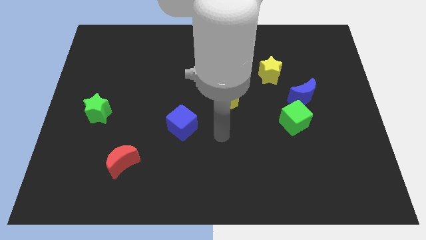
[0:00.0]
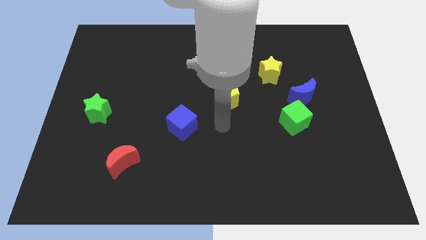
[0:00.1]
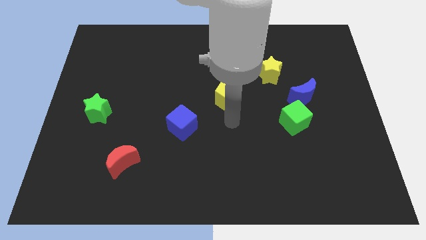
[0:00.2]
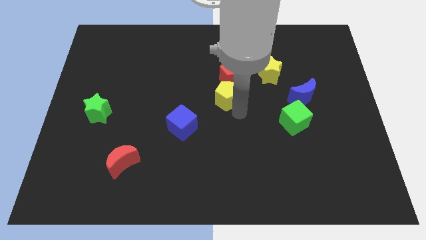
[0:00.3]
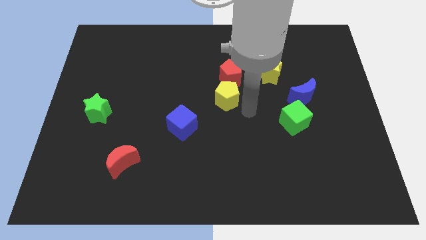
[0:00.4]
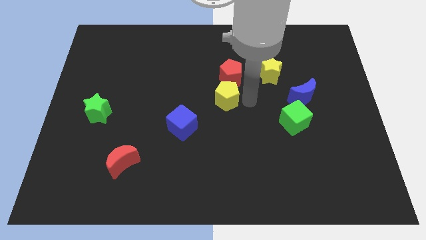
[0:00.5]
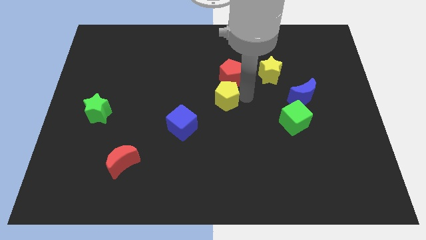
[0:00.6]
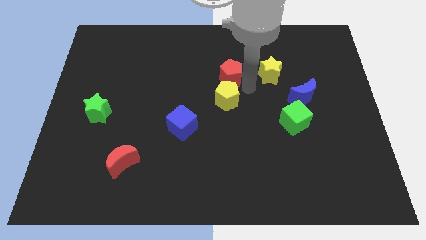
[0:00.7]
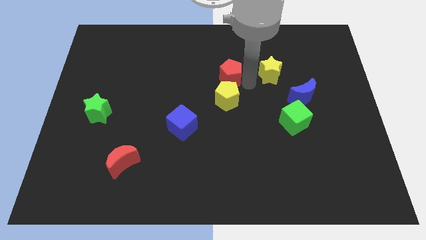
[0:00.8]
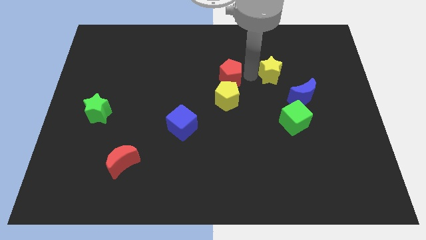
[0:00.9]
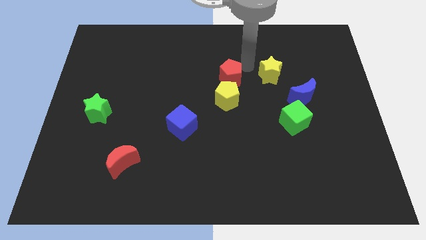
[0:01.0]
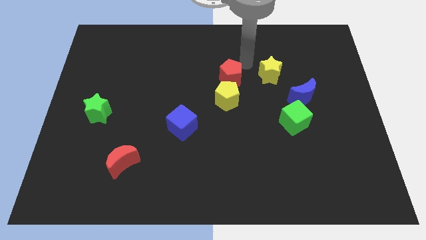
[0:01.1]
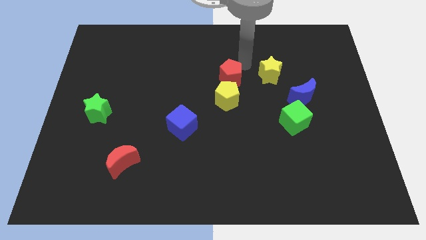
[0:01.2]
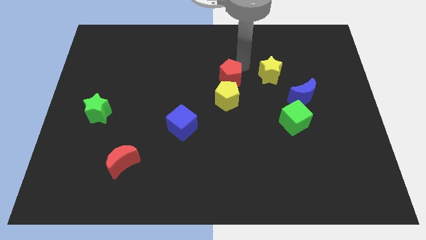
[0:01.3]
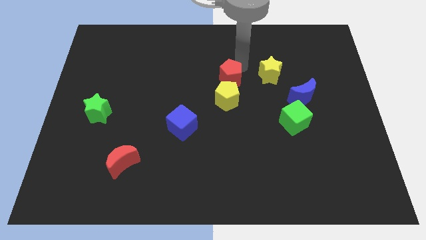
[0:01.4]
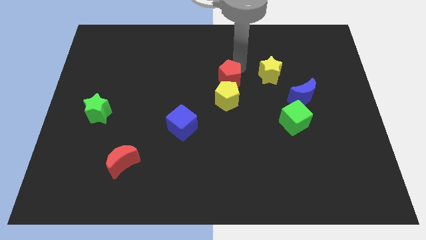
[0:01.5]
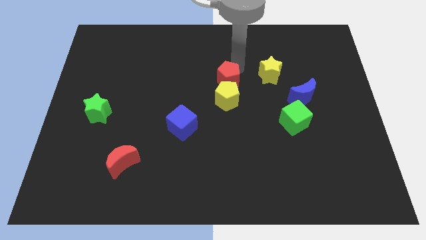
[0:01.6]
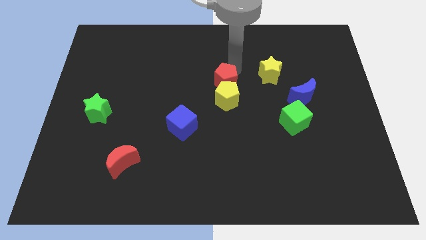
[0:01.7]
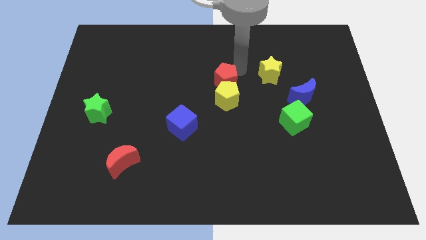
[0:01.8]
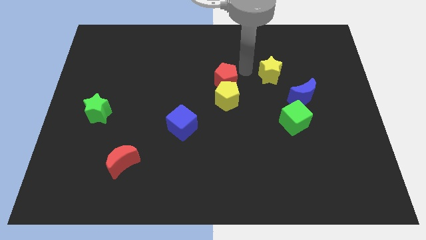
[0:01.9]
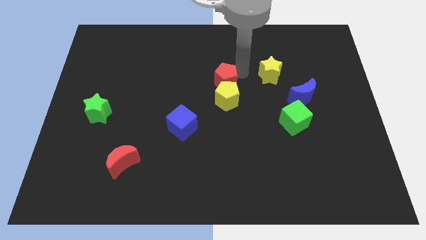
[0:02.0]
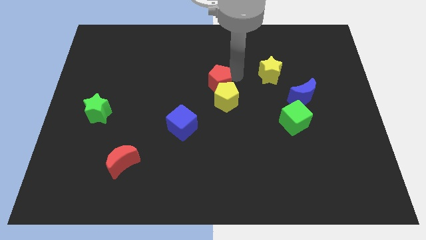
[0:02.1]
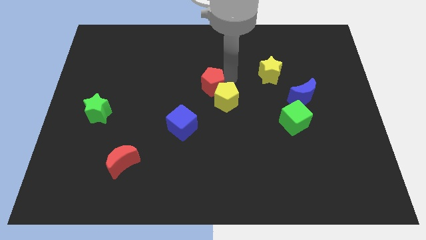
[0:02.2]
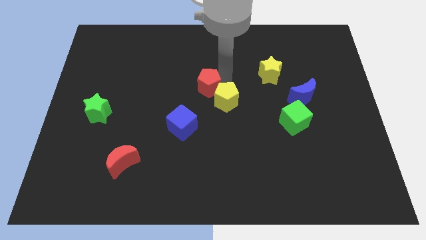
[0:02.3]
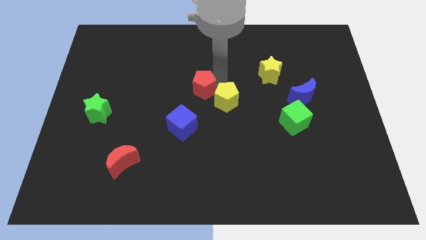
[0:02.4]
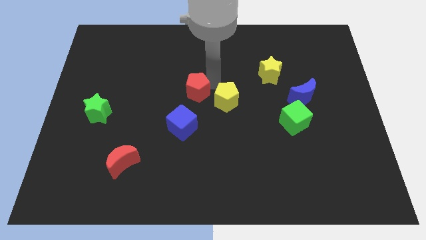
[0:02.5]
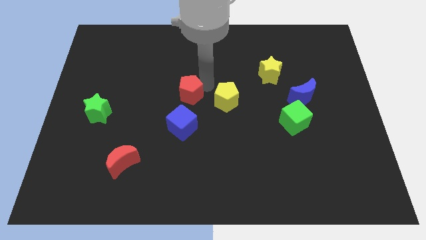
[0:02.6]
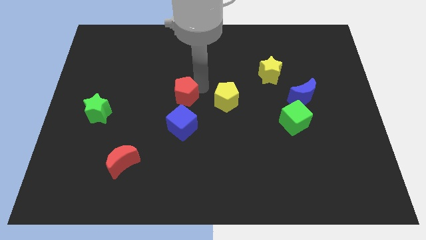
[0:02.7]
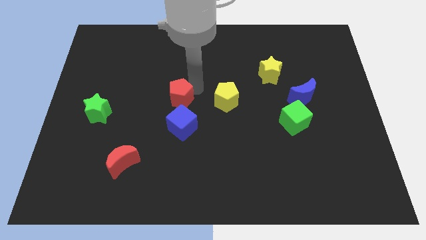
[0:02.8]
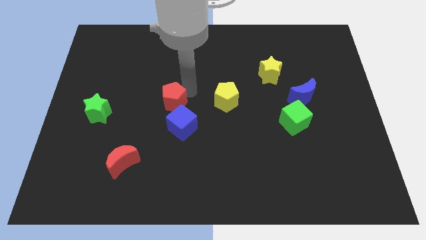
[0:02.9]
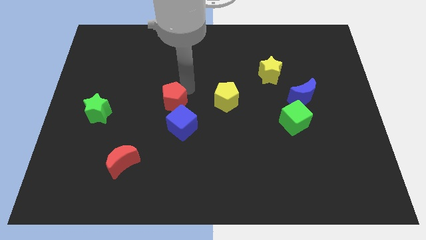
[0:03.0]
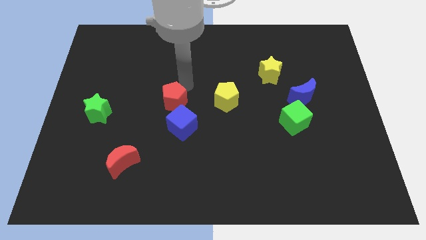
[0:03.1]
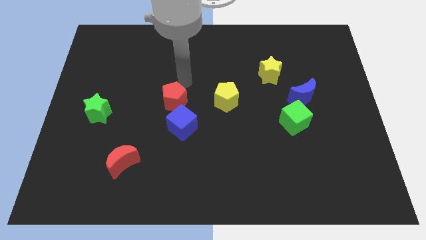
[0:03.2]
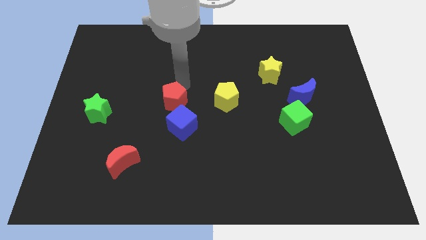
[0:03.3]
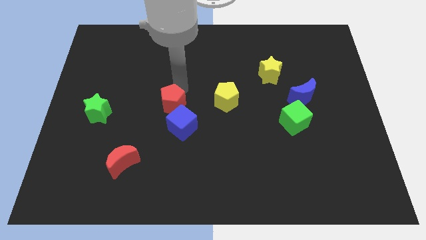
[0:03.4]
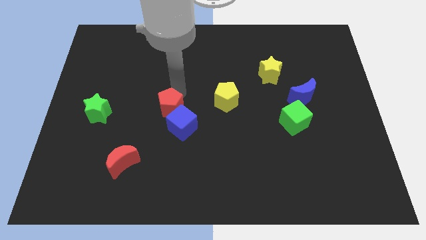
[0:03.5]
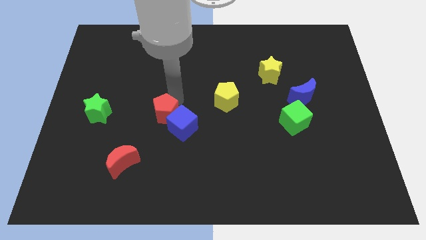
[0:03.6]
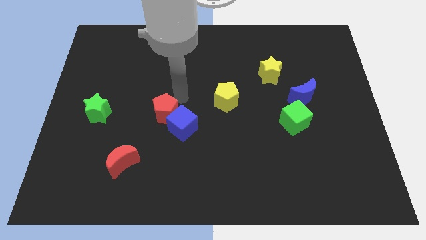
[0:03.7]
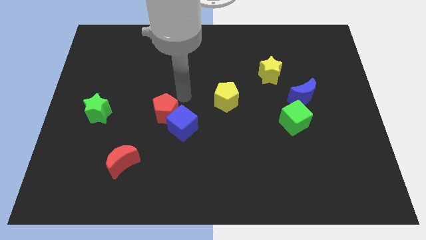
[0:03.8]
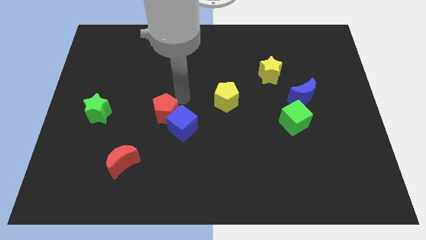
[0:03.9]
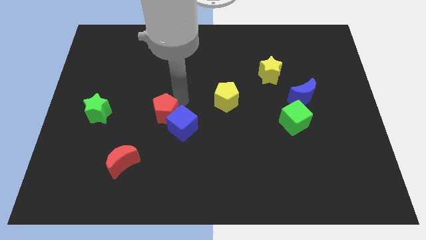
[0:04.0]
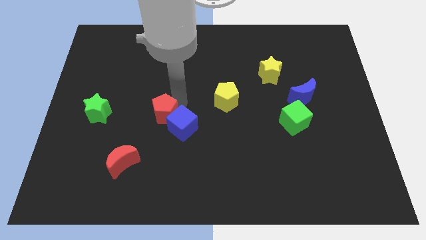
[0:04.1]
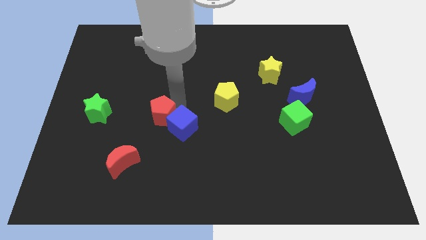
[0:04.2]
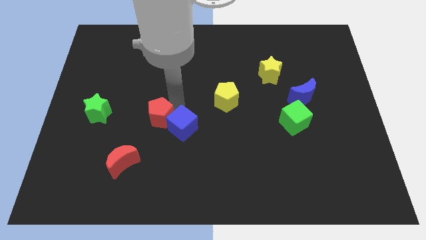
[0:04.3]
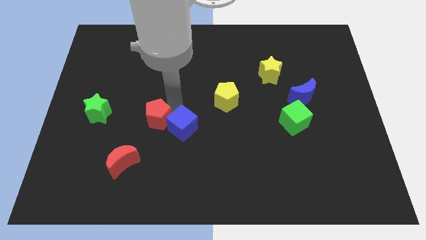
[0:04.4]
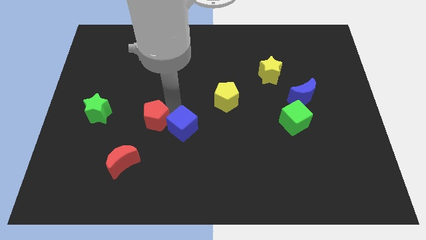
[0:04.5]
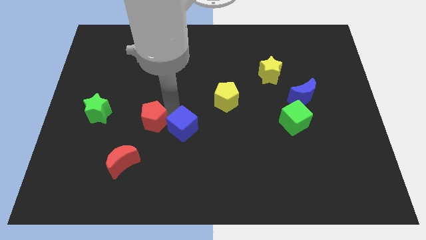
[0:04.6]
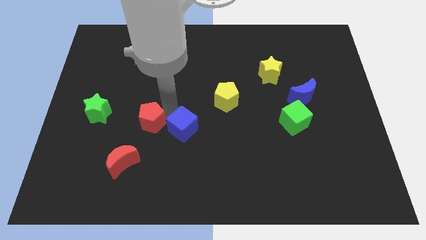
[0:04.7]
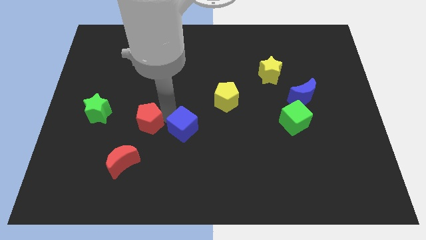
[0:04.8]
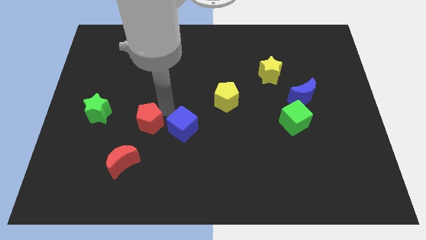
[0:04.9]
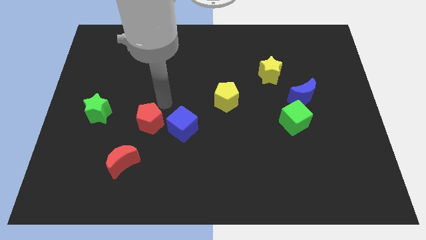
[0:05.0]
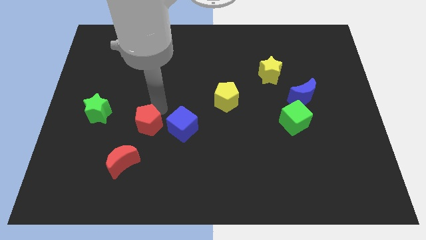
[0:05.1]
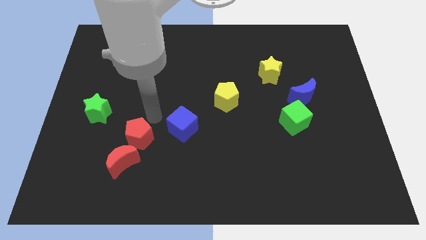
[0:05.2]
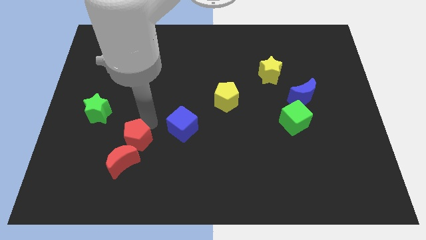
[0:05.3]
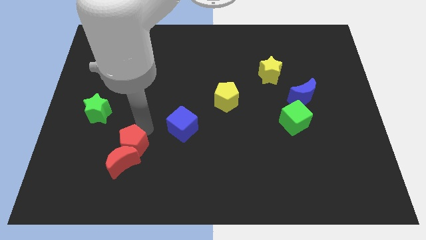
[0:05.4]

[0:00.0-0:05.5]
move the red pentagon to the red moon

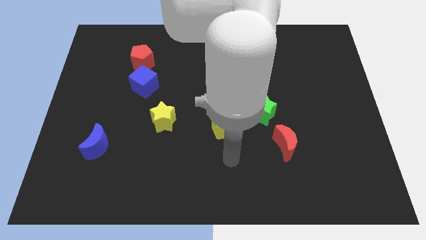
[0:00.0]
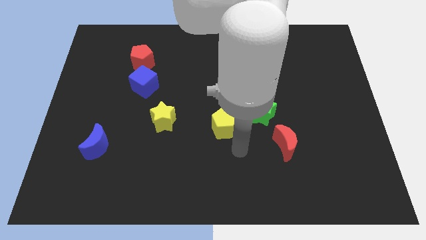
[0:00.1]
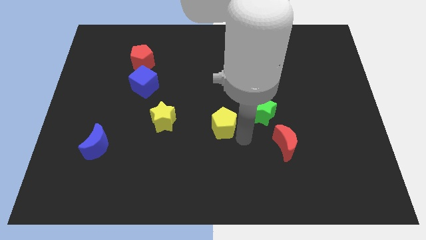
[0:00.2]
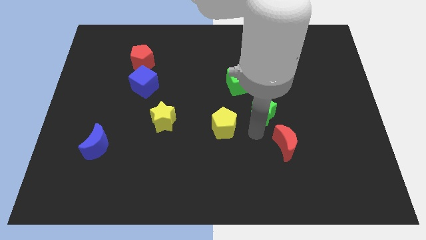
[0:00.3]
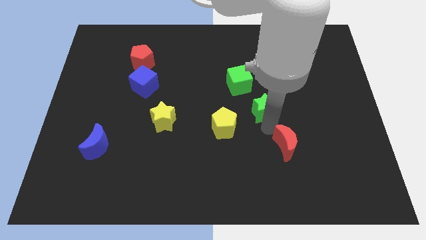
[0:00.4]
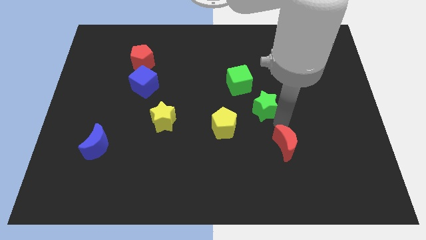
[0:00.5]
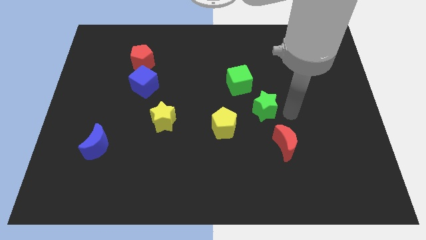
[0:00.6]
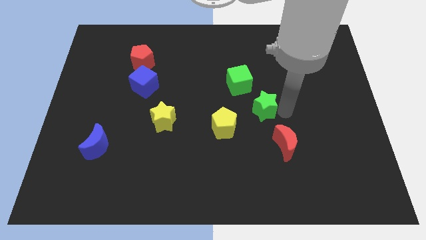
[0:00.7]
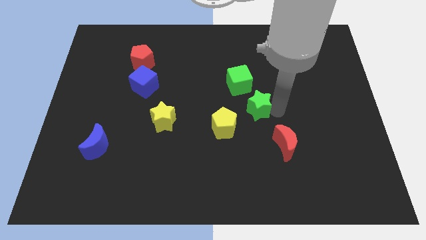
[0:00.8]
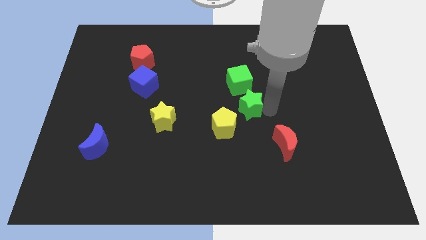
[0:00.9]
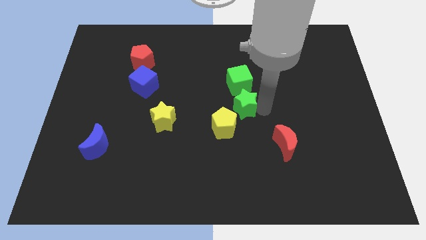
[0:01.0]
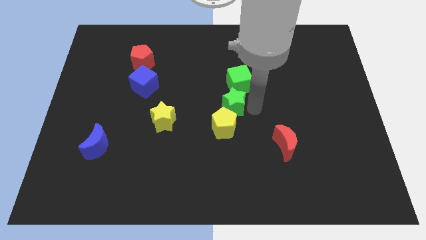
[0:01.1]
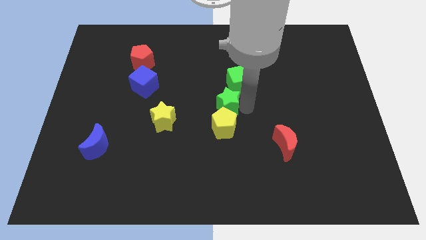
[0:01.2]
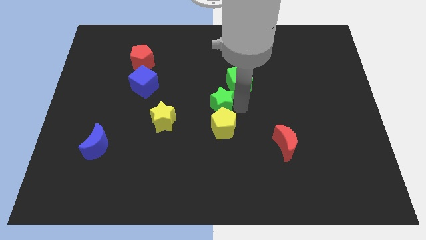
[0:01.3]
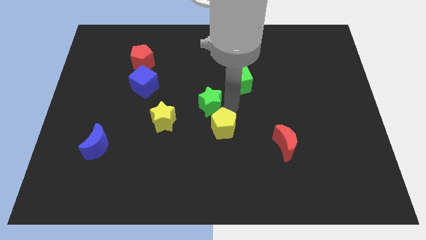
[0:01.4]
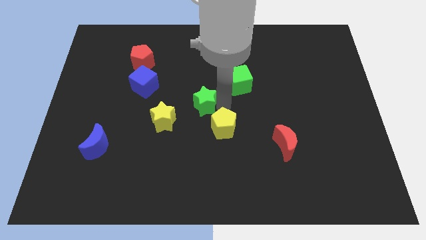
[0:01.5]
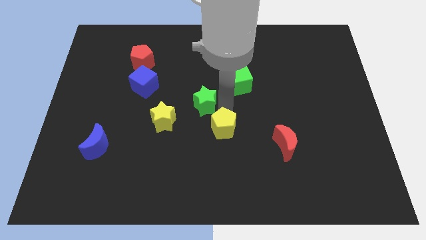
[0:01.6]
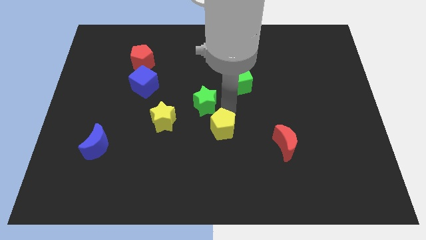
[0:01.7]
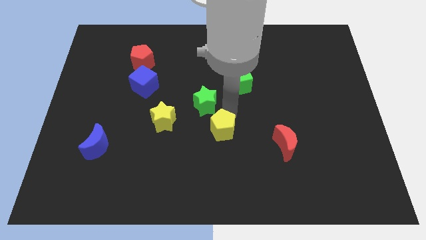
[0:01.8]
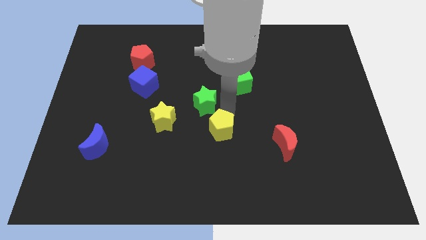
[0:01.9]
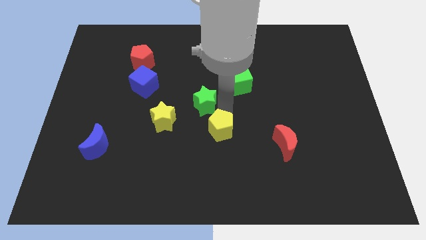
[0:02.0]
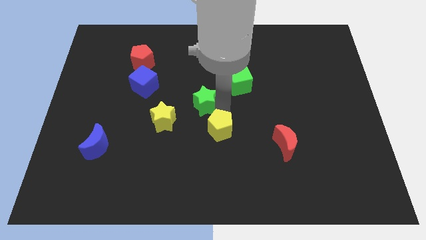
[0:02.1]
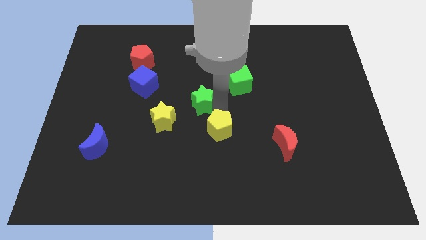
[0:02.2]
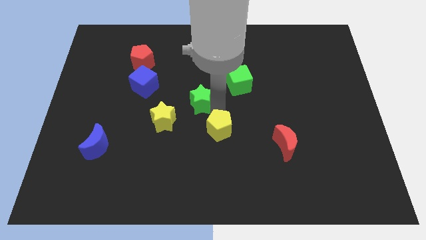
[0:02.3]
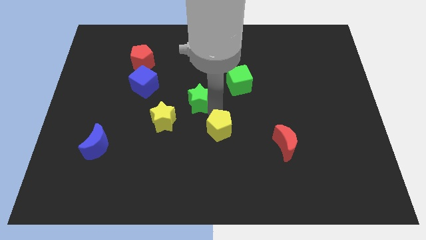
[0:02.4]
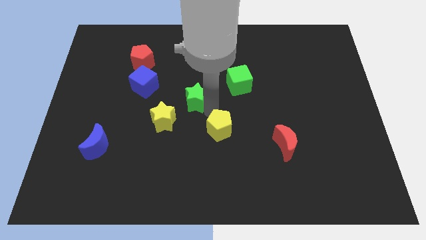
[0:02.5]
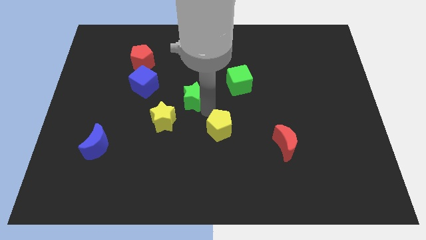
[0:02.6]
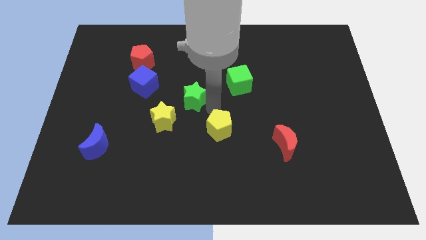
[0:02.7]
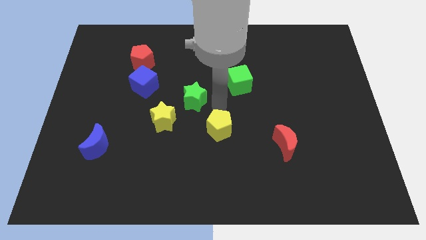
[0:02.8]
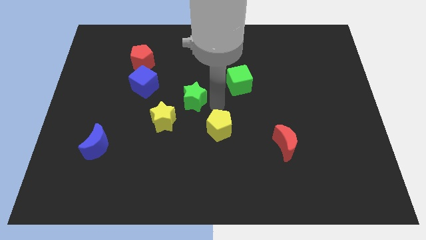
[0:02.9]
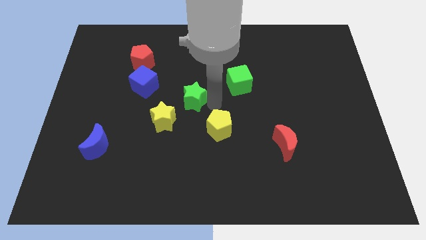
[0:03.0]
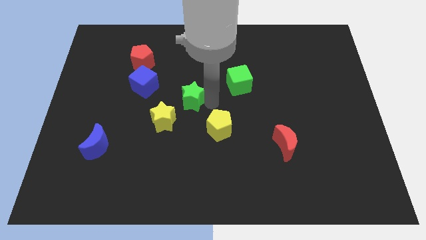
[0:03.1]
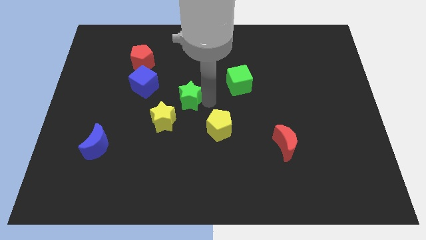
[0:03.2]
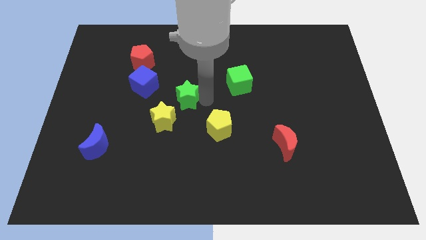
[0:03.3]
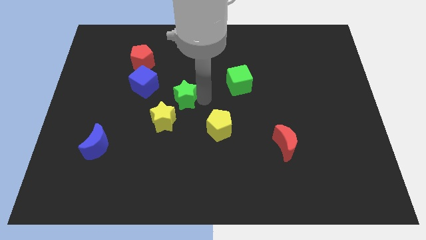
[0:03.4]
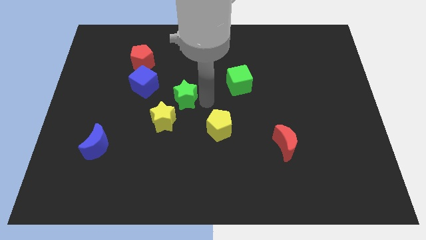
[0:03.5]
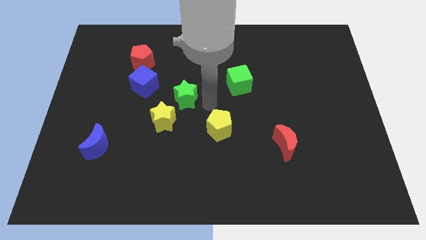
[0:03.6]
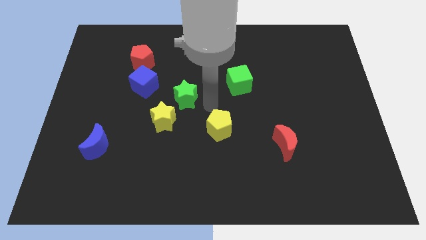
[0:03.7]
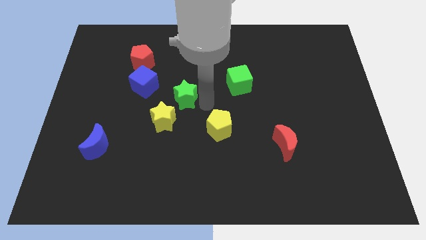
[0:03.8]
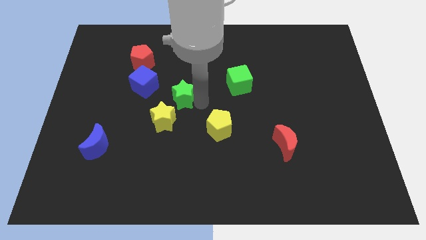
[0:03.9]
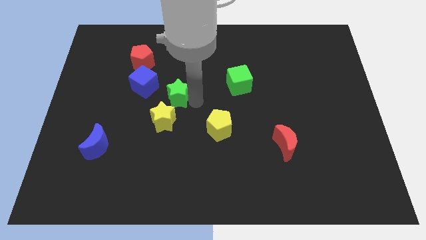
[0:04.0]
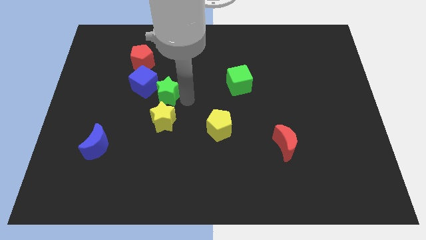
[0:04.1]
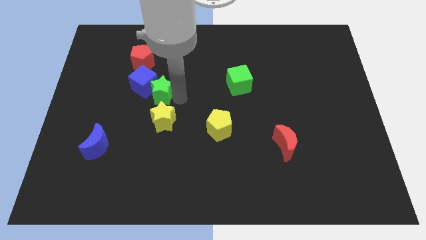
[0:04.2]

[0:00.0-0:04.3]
put the green star next to the blue cube
